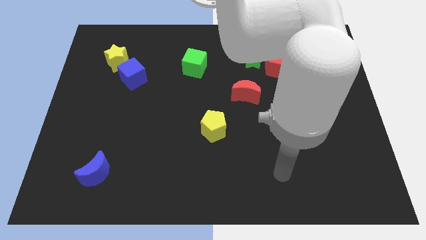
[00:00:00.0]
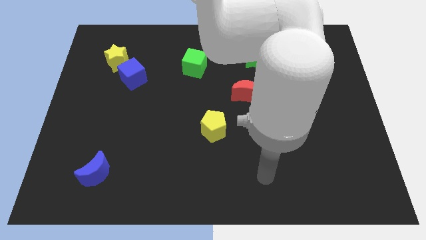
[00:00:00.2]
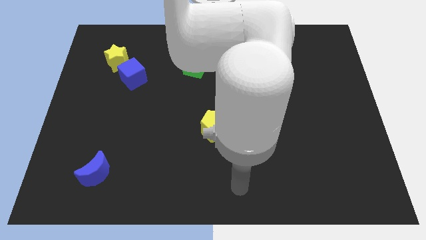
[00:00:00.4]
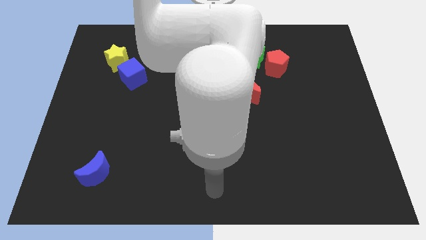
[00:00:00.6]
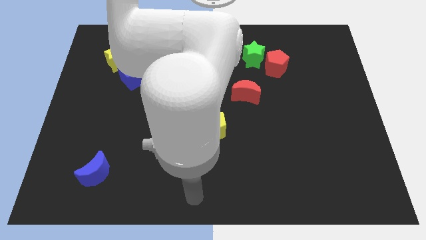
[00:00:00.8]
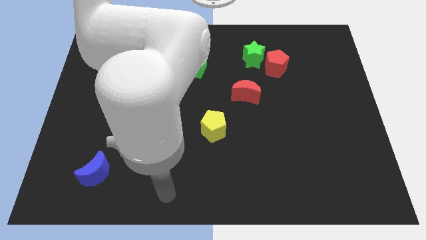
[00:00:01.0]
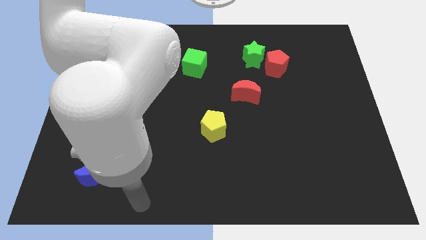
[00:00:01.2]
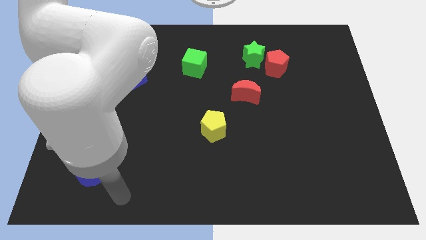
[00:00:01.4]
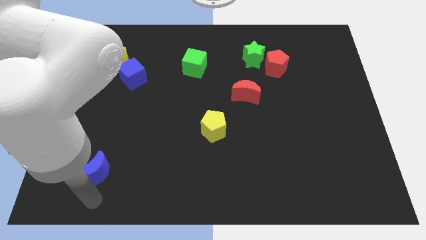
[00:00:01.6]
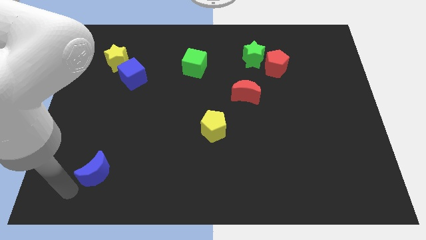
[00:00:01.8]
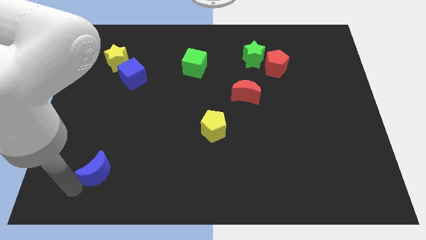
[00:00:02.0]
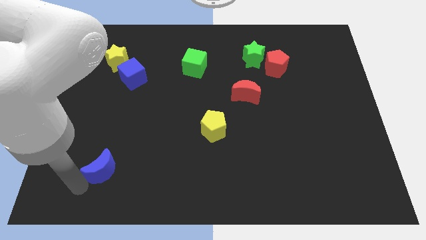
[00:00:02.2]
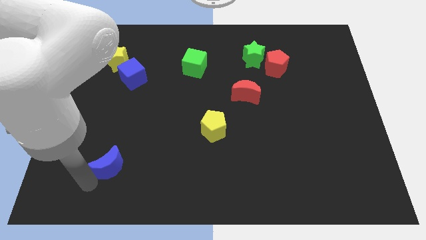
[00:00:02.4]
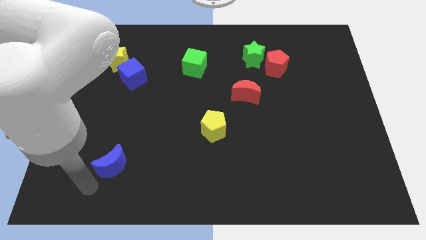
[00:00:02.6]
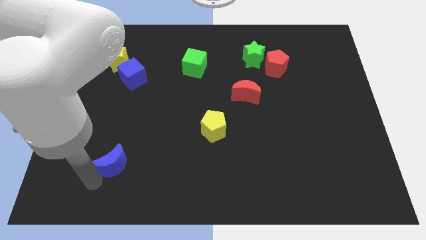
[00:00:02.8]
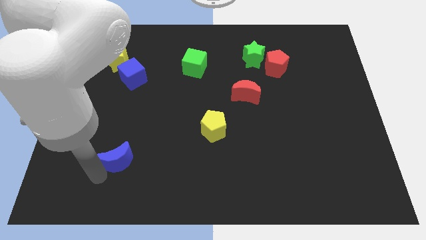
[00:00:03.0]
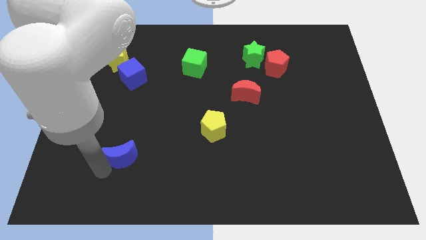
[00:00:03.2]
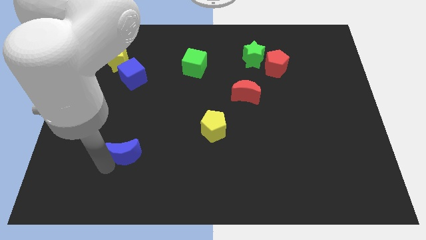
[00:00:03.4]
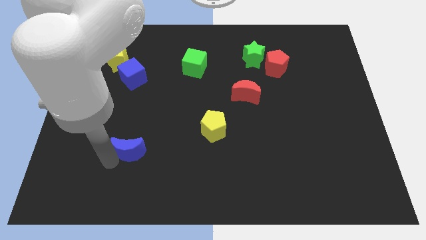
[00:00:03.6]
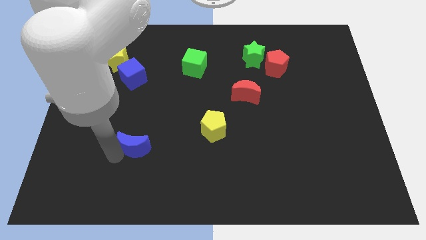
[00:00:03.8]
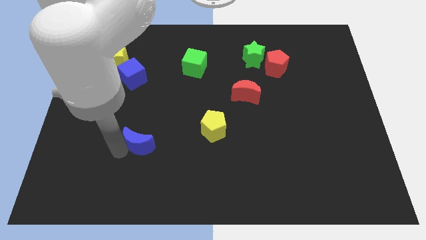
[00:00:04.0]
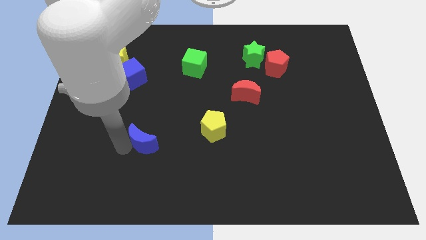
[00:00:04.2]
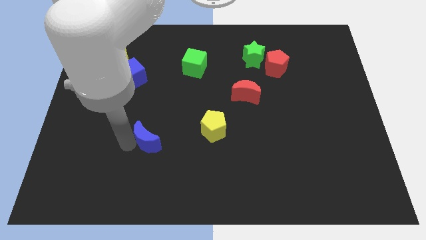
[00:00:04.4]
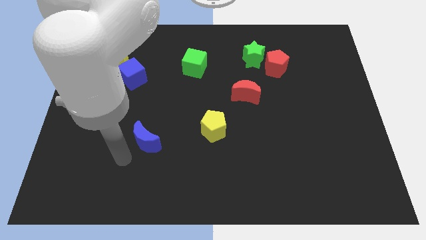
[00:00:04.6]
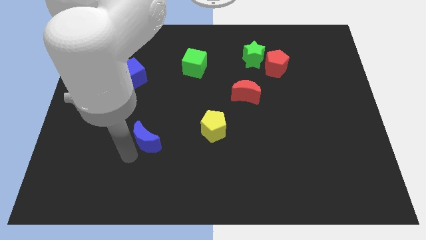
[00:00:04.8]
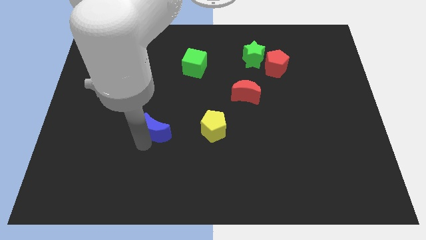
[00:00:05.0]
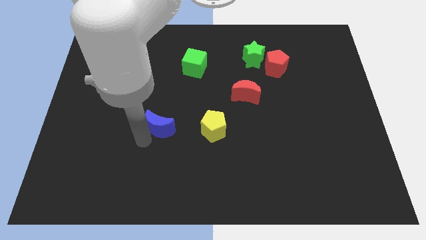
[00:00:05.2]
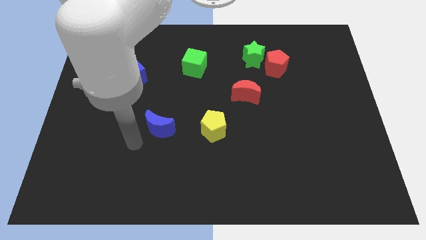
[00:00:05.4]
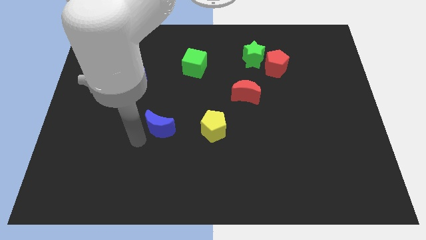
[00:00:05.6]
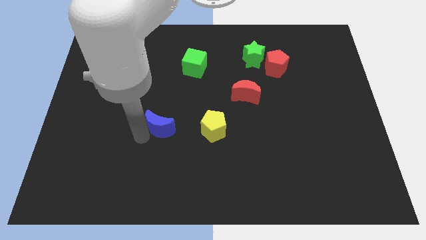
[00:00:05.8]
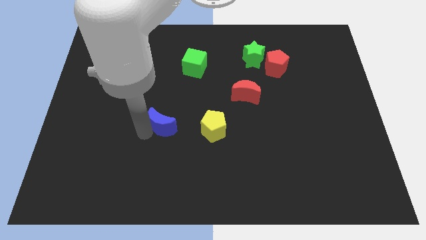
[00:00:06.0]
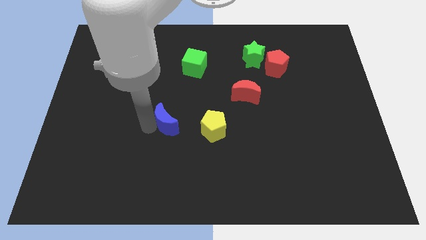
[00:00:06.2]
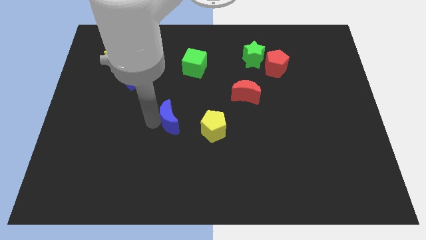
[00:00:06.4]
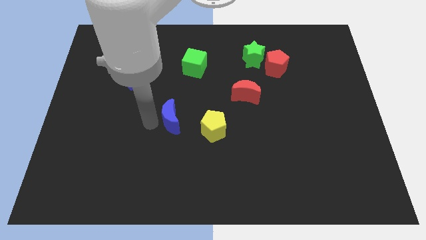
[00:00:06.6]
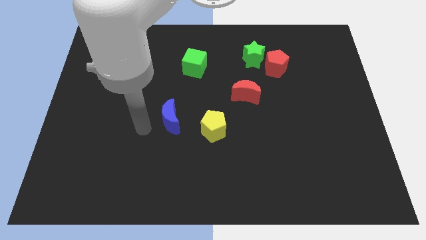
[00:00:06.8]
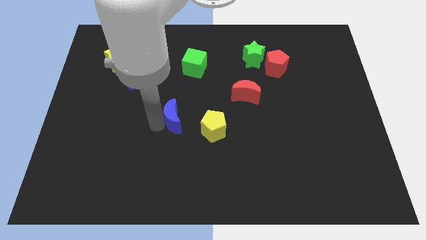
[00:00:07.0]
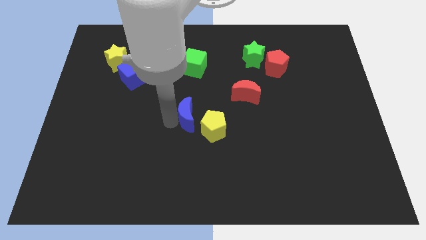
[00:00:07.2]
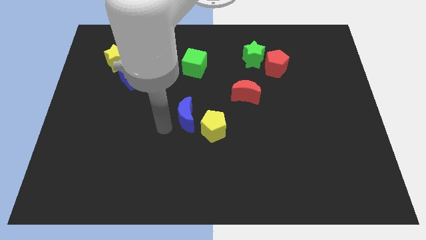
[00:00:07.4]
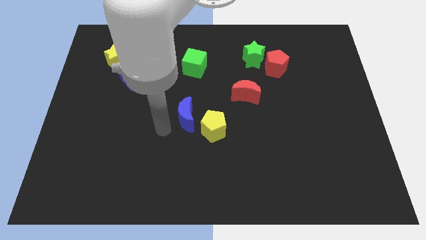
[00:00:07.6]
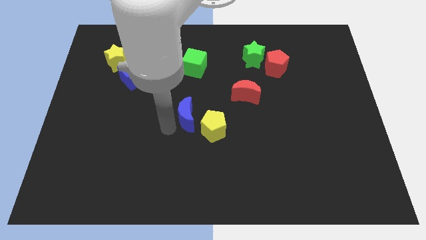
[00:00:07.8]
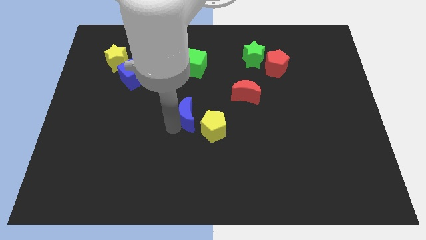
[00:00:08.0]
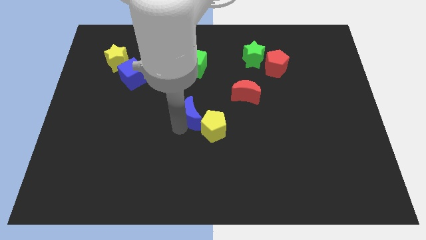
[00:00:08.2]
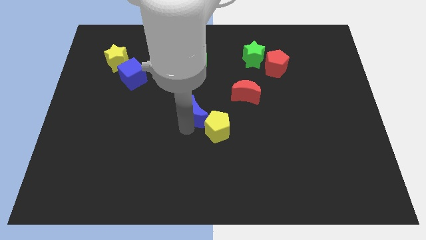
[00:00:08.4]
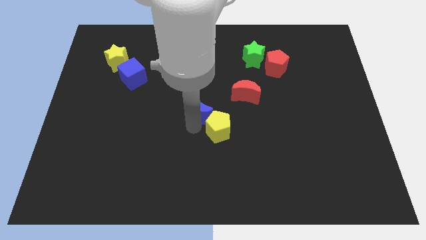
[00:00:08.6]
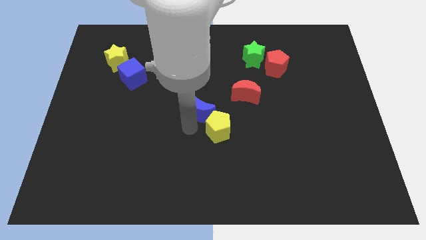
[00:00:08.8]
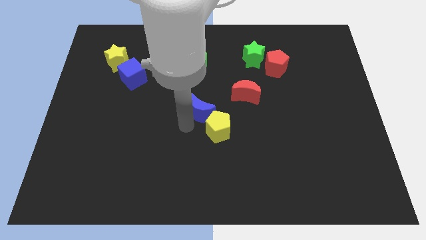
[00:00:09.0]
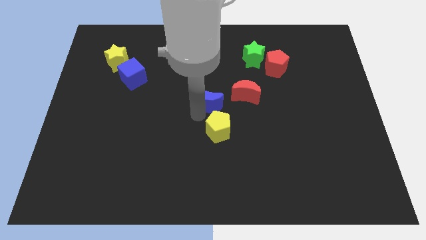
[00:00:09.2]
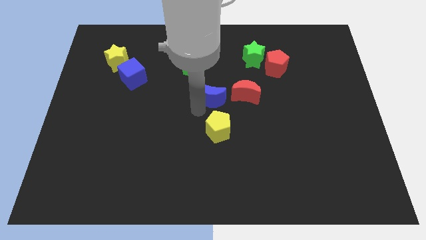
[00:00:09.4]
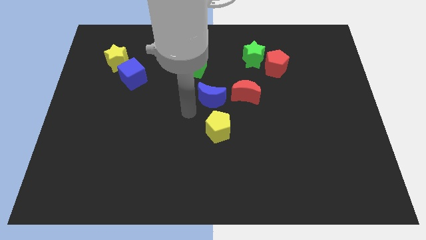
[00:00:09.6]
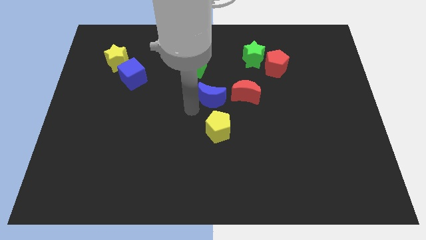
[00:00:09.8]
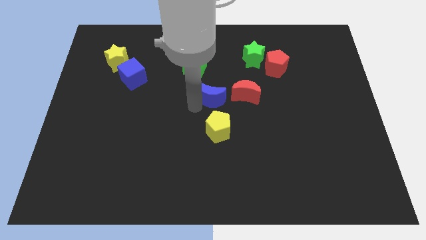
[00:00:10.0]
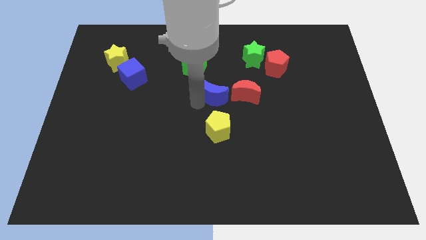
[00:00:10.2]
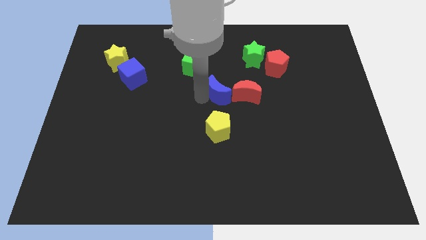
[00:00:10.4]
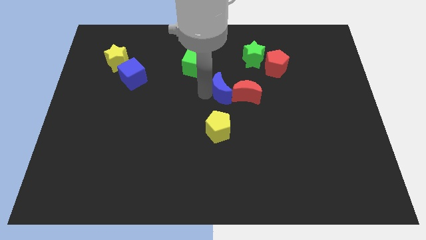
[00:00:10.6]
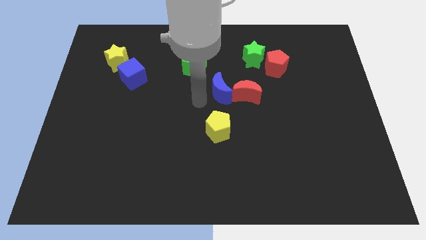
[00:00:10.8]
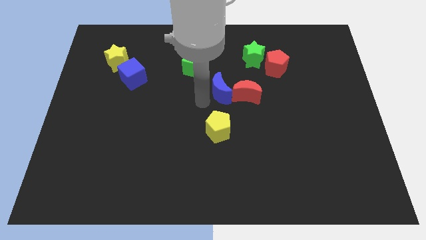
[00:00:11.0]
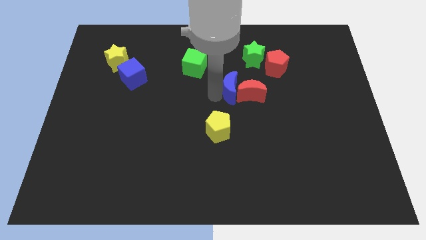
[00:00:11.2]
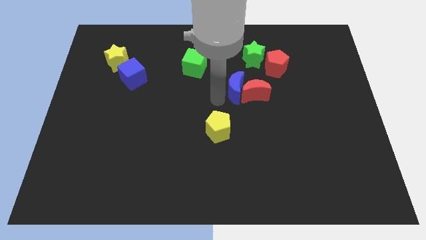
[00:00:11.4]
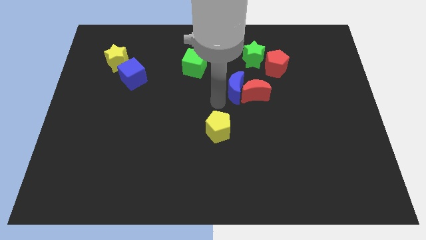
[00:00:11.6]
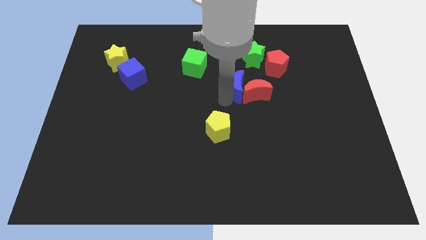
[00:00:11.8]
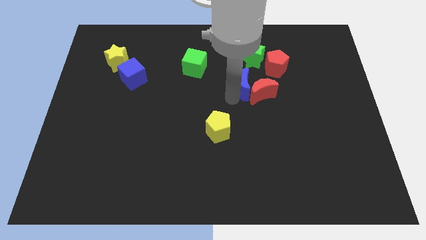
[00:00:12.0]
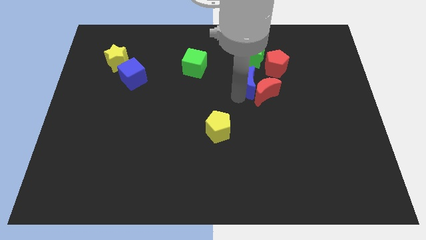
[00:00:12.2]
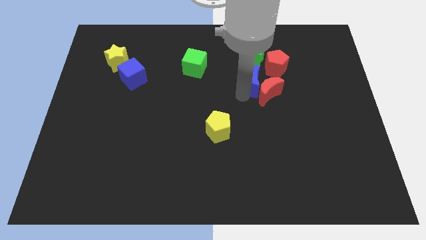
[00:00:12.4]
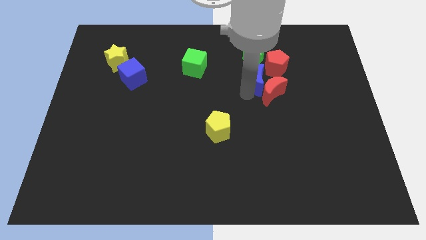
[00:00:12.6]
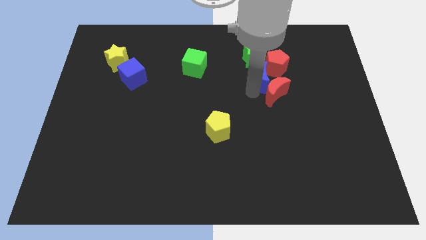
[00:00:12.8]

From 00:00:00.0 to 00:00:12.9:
slide the blue moon to the red pentagon

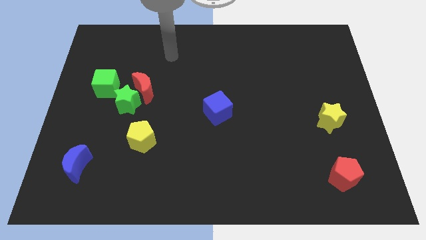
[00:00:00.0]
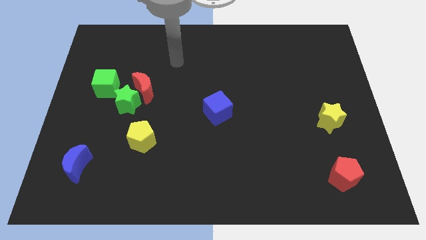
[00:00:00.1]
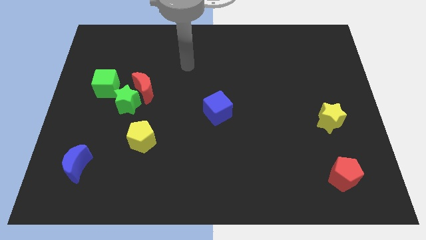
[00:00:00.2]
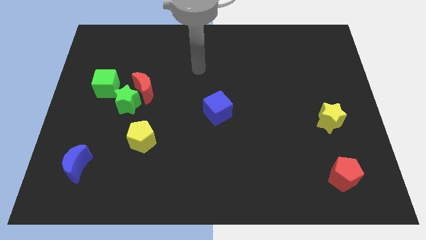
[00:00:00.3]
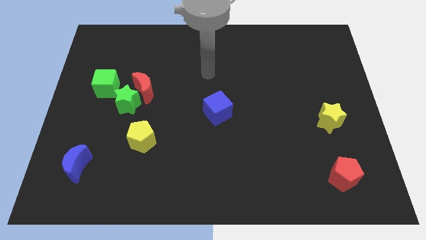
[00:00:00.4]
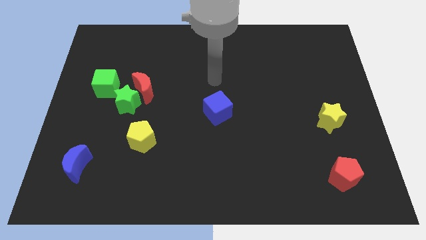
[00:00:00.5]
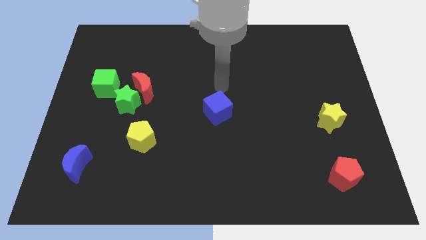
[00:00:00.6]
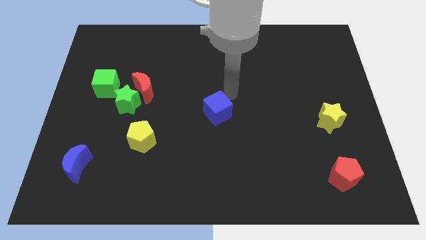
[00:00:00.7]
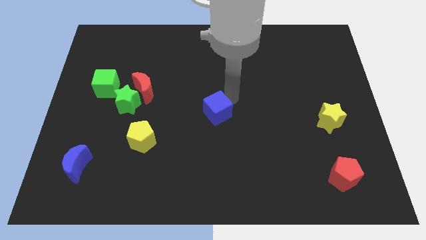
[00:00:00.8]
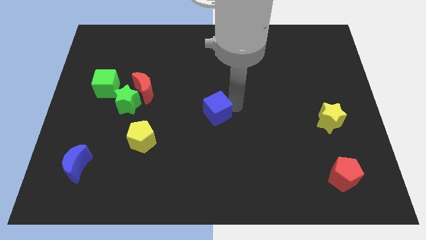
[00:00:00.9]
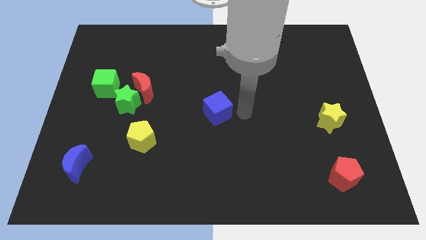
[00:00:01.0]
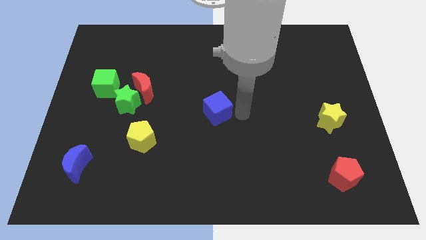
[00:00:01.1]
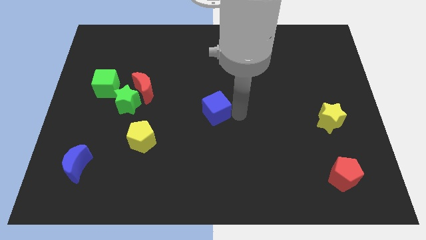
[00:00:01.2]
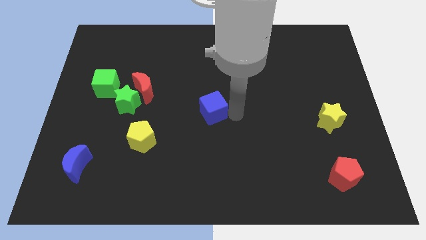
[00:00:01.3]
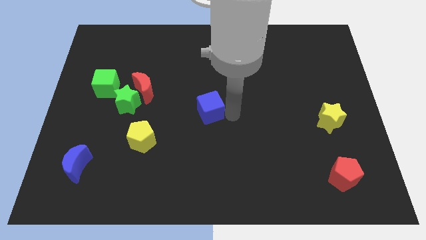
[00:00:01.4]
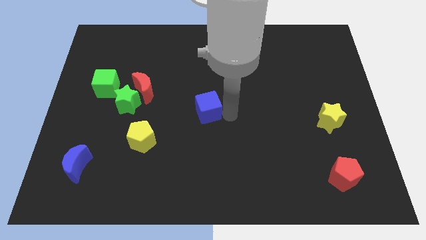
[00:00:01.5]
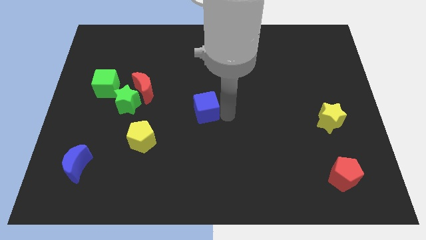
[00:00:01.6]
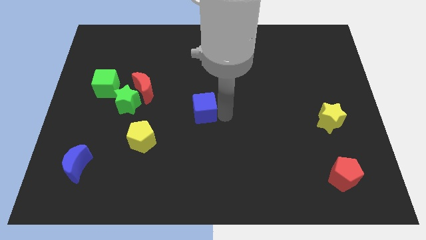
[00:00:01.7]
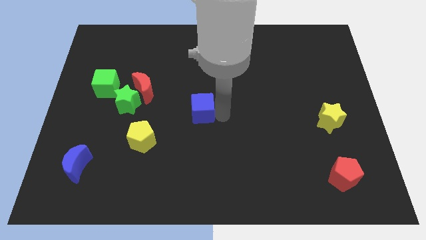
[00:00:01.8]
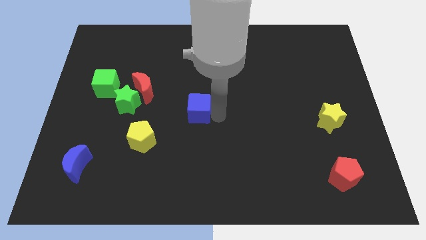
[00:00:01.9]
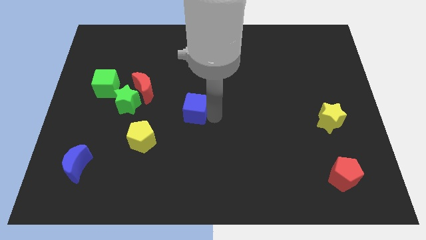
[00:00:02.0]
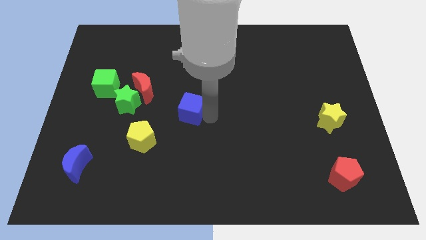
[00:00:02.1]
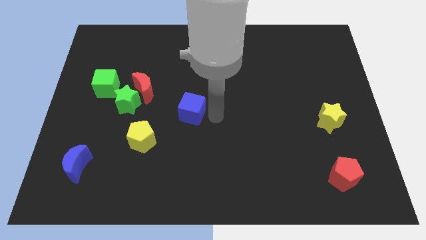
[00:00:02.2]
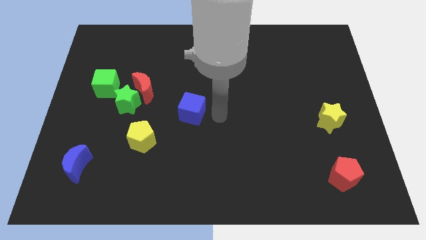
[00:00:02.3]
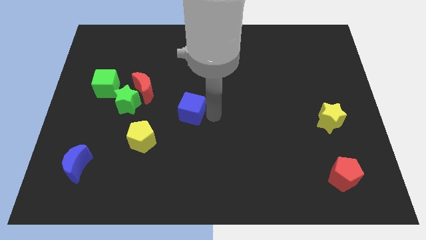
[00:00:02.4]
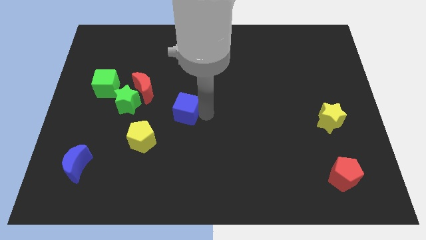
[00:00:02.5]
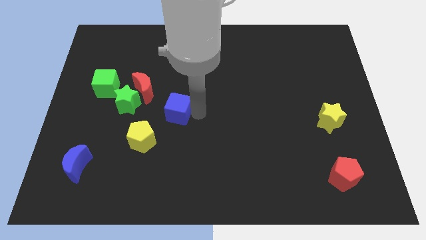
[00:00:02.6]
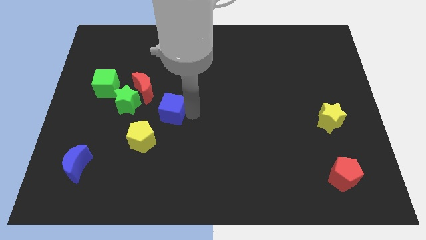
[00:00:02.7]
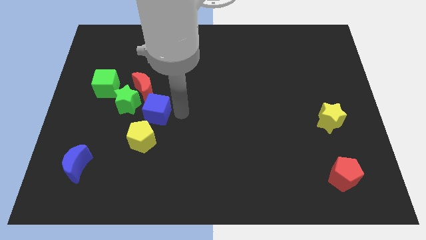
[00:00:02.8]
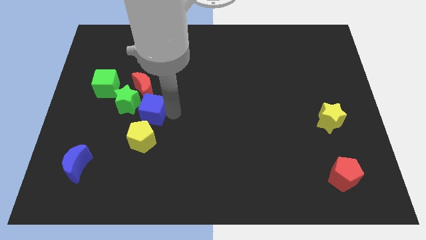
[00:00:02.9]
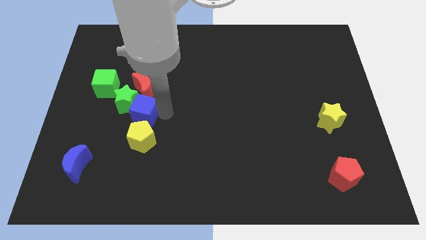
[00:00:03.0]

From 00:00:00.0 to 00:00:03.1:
push the blue cube towards the green star
